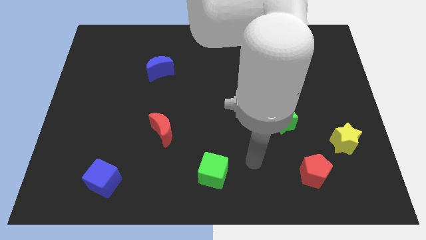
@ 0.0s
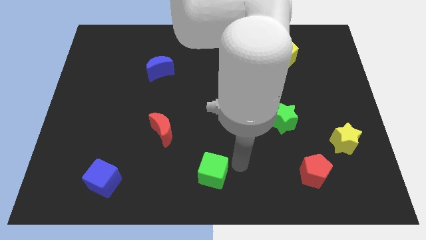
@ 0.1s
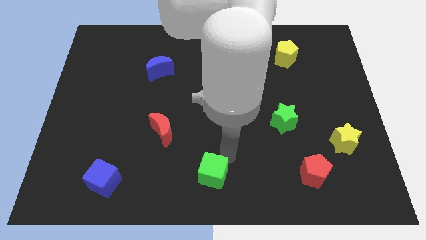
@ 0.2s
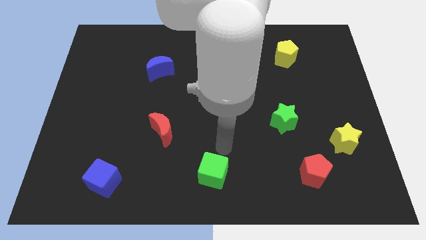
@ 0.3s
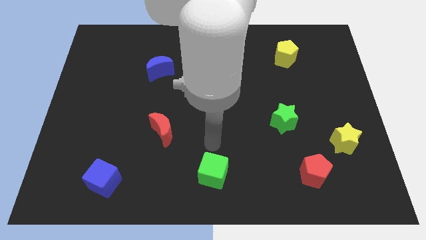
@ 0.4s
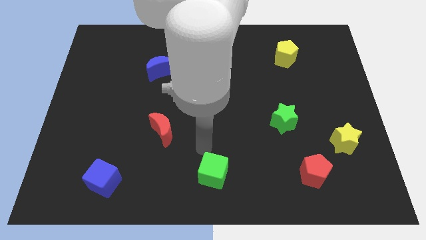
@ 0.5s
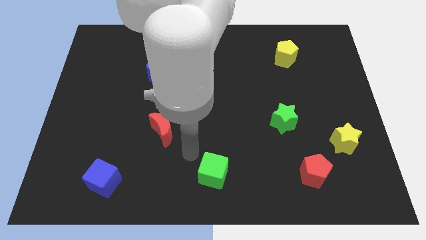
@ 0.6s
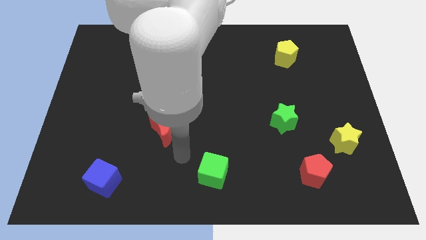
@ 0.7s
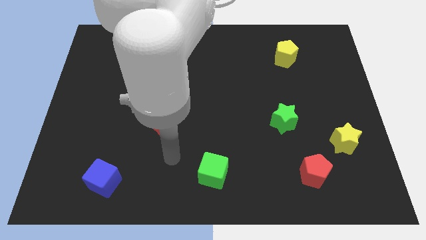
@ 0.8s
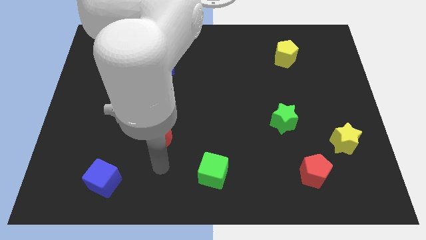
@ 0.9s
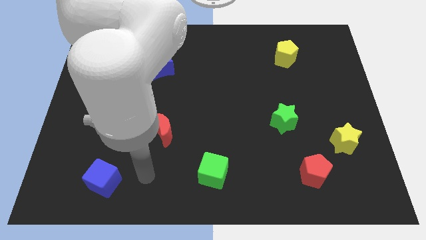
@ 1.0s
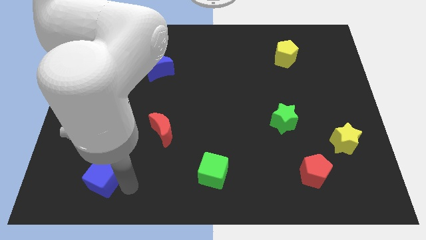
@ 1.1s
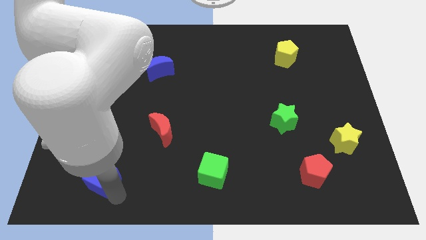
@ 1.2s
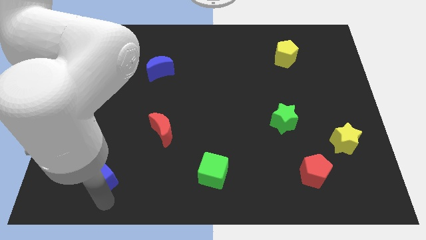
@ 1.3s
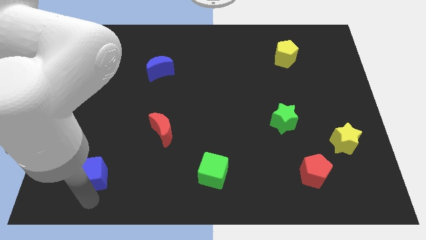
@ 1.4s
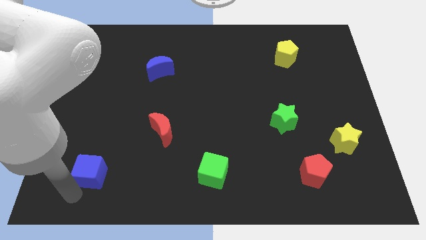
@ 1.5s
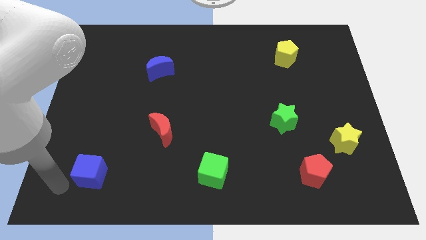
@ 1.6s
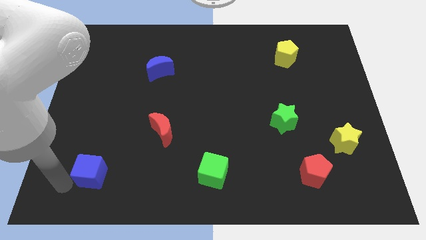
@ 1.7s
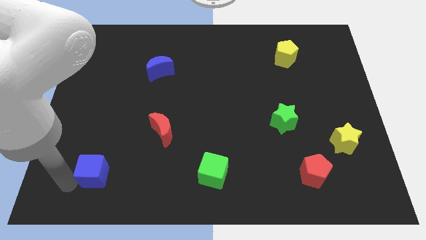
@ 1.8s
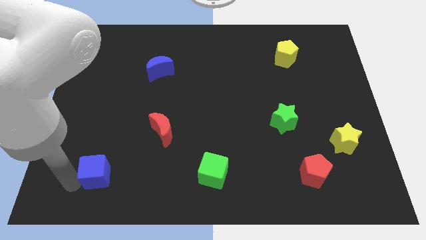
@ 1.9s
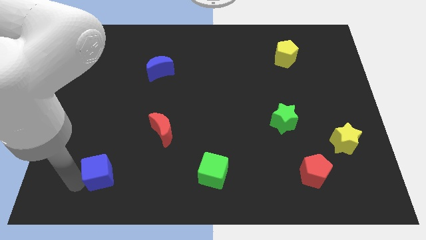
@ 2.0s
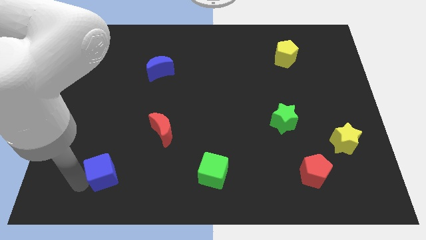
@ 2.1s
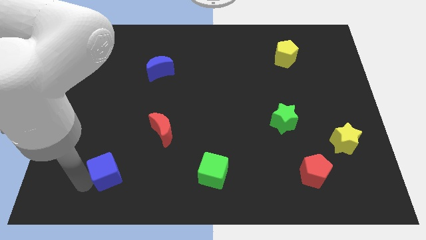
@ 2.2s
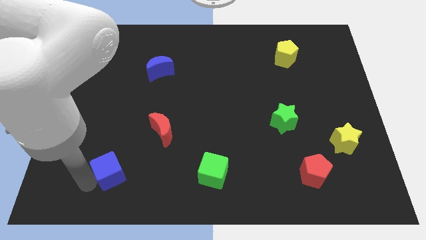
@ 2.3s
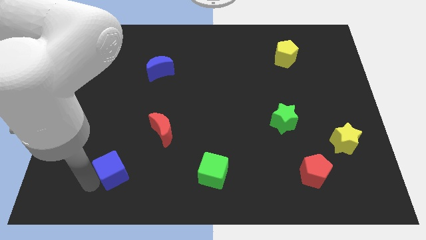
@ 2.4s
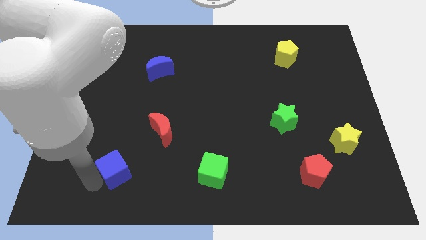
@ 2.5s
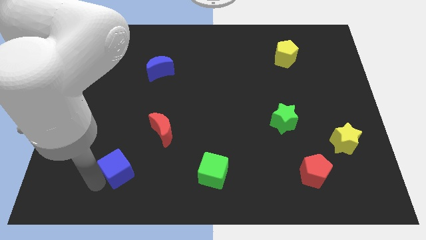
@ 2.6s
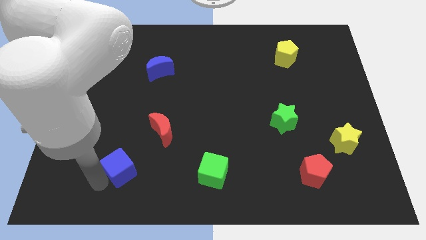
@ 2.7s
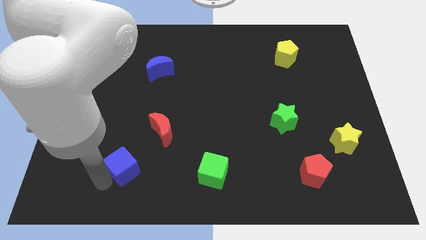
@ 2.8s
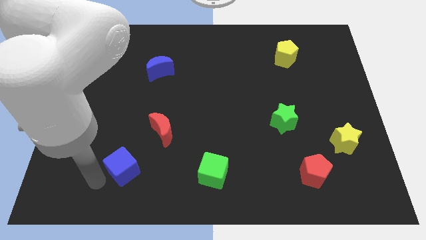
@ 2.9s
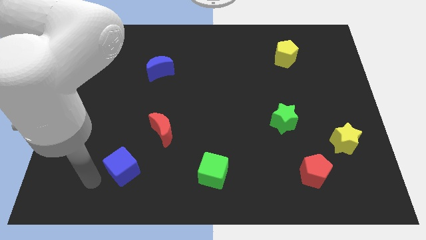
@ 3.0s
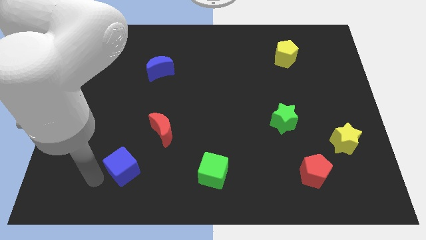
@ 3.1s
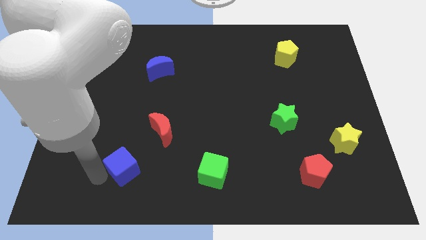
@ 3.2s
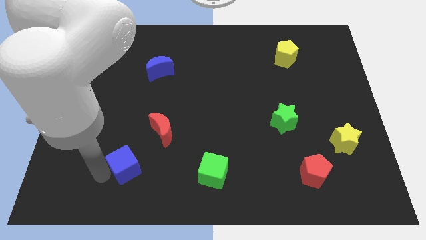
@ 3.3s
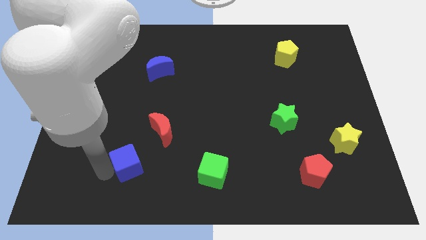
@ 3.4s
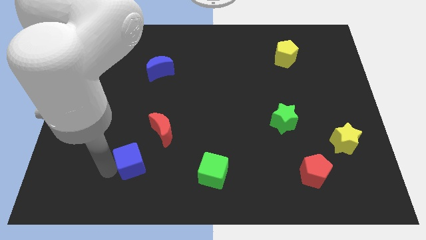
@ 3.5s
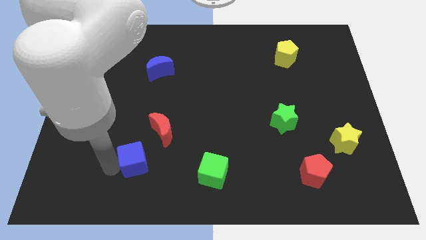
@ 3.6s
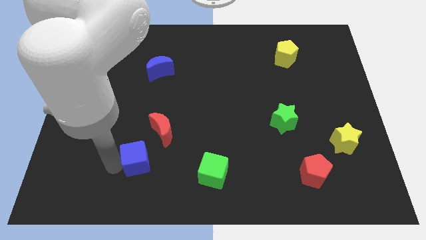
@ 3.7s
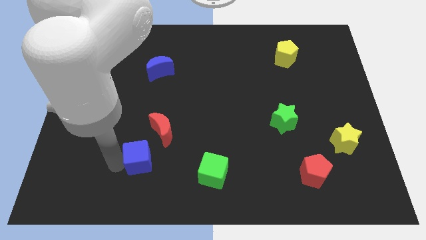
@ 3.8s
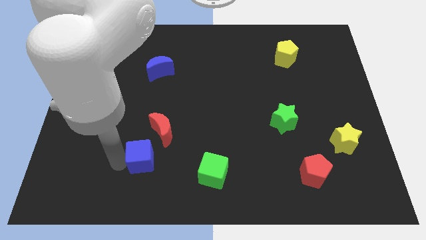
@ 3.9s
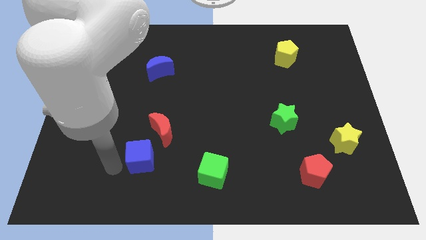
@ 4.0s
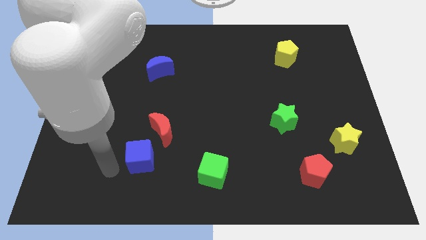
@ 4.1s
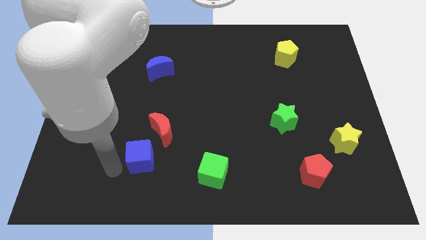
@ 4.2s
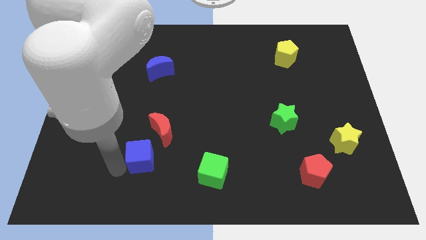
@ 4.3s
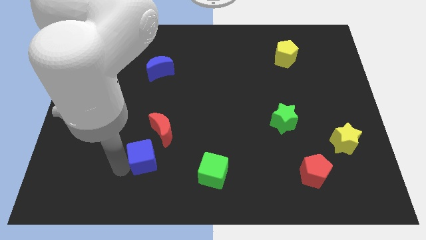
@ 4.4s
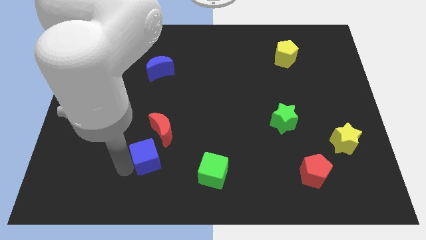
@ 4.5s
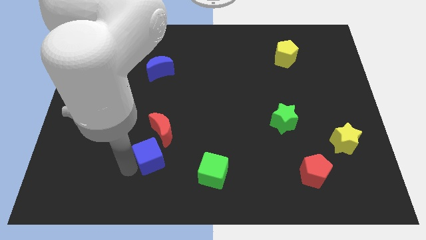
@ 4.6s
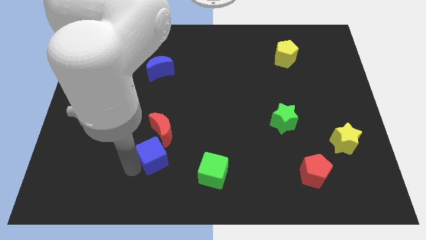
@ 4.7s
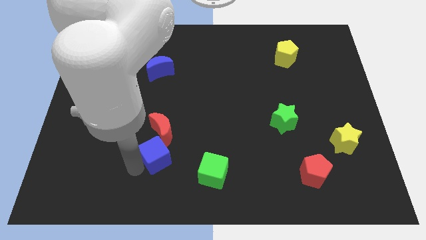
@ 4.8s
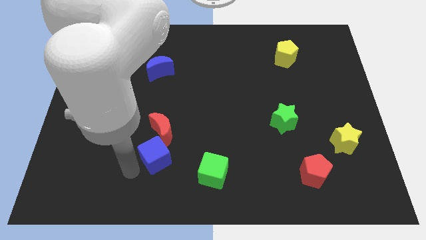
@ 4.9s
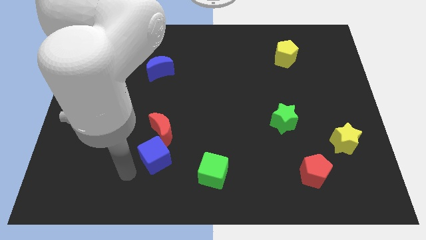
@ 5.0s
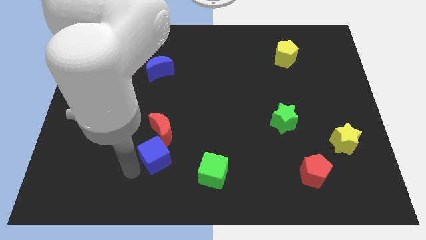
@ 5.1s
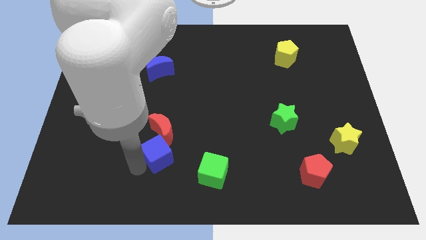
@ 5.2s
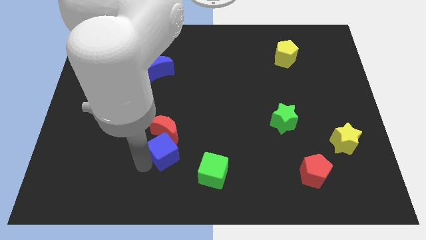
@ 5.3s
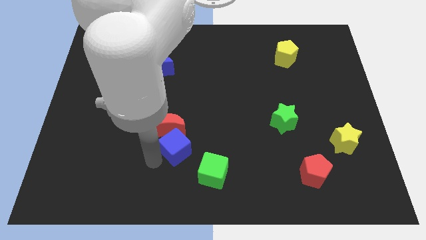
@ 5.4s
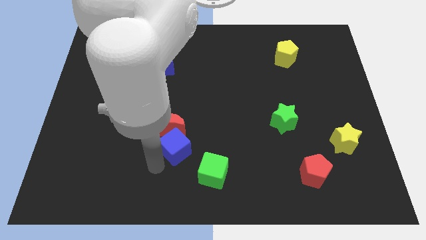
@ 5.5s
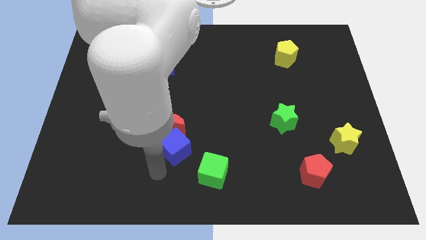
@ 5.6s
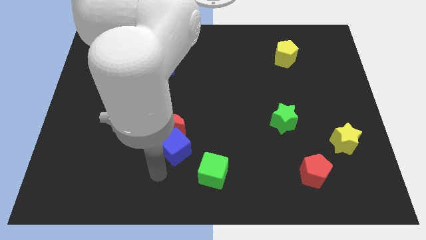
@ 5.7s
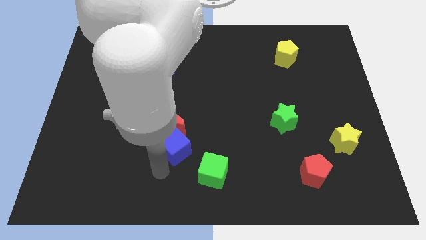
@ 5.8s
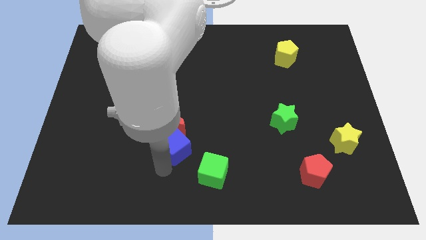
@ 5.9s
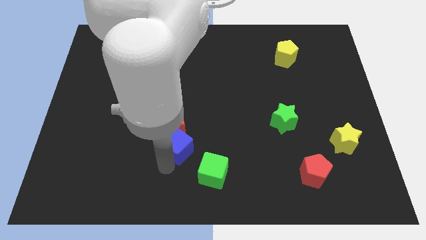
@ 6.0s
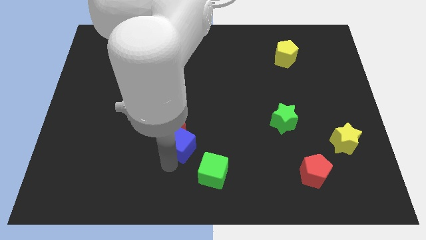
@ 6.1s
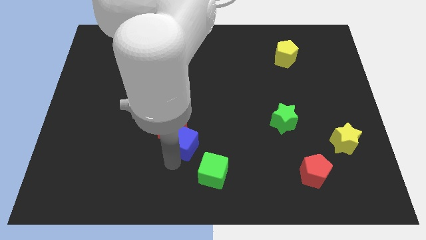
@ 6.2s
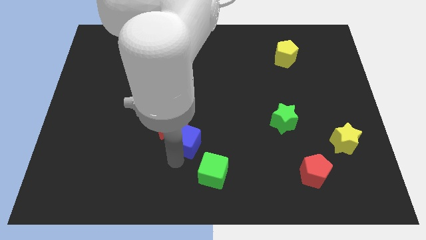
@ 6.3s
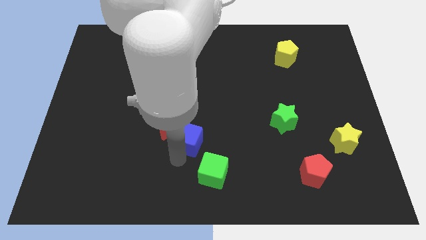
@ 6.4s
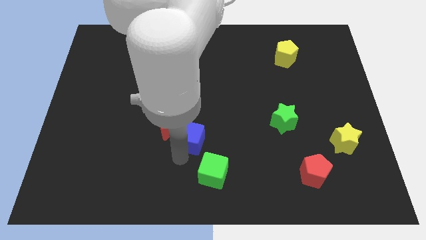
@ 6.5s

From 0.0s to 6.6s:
put the blue cube to the middle

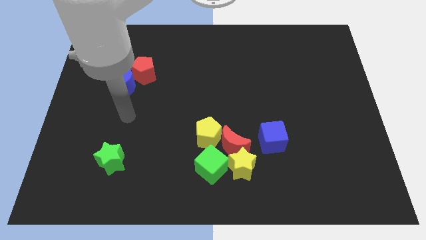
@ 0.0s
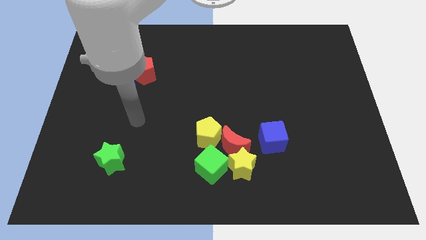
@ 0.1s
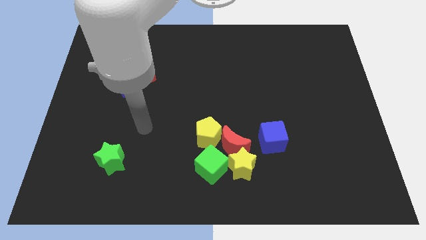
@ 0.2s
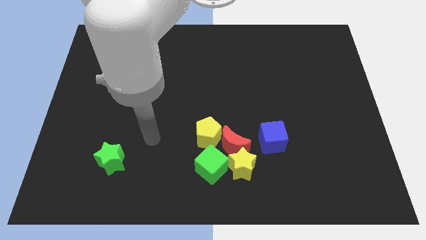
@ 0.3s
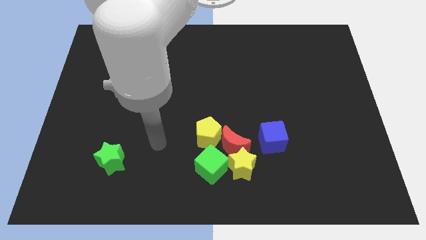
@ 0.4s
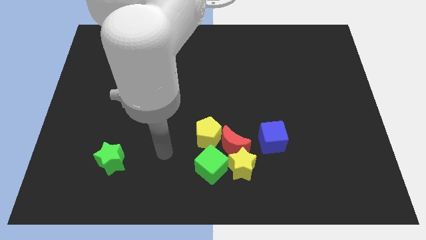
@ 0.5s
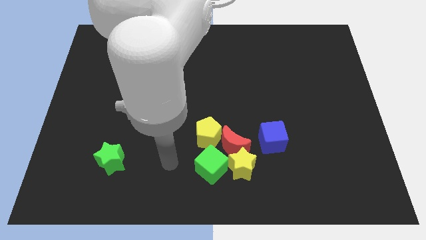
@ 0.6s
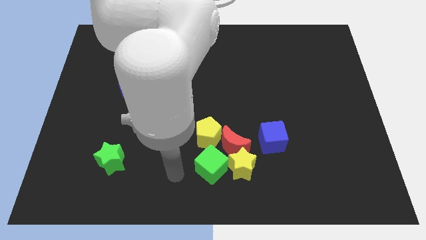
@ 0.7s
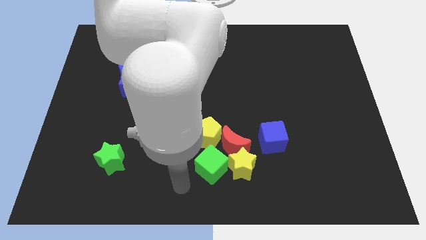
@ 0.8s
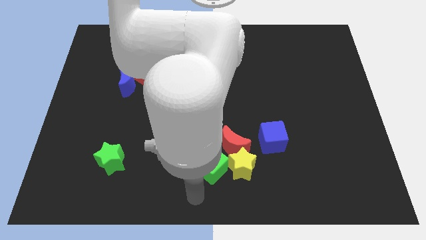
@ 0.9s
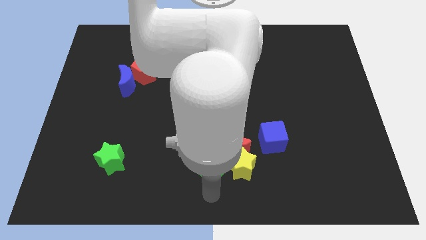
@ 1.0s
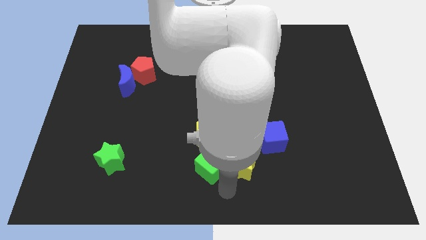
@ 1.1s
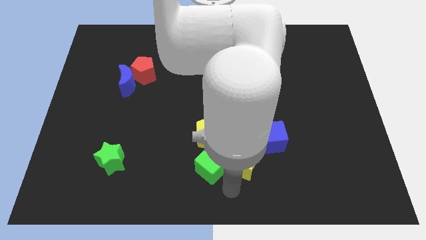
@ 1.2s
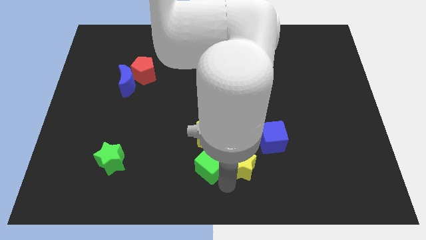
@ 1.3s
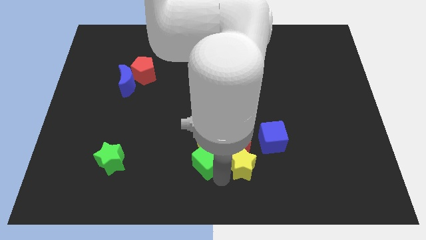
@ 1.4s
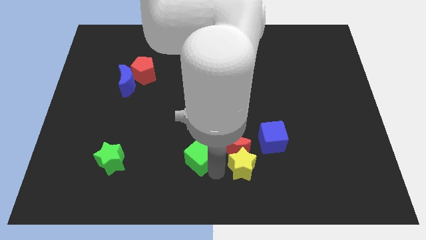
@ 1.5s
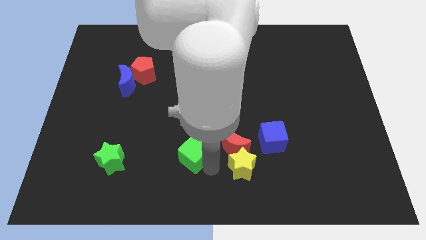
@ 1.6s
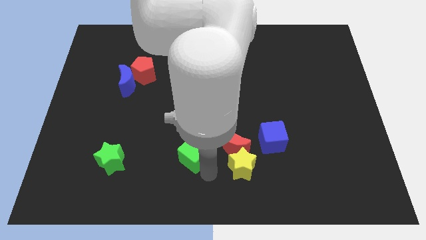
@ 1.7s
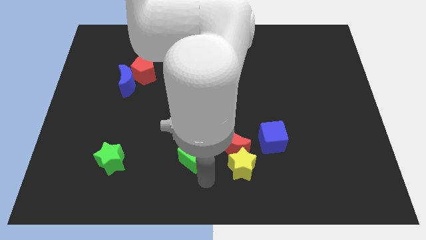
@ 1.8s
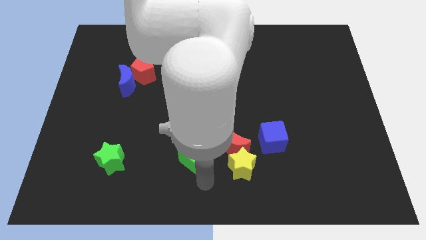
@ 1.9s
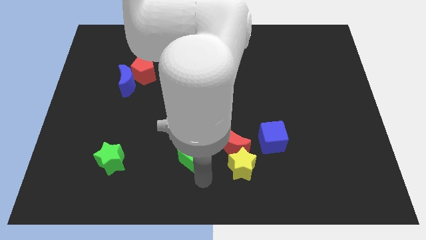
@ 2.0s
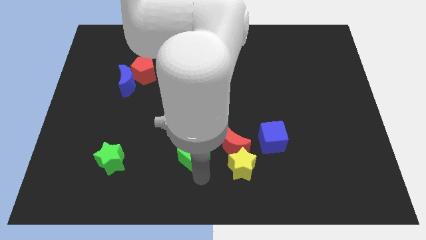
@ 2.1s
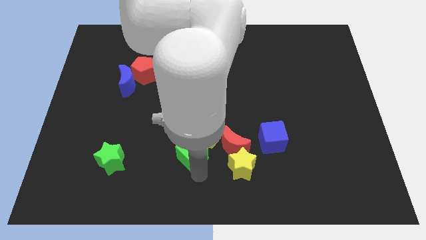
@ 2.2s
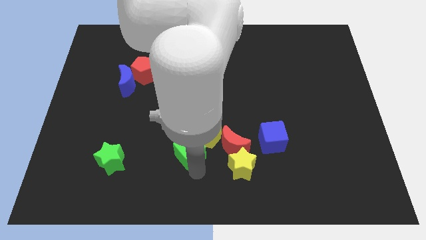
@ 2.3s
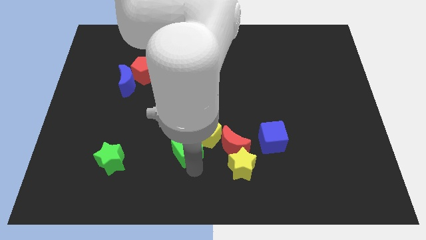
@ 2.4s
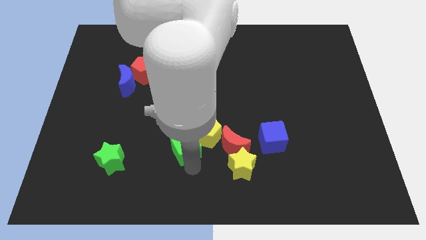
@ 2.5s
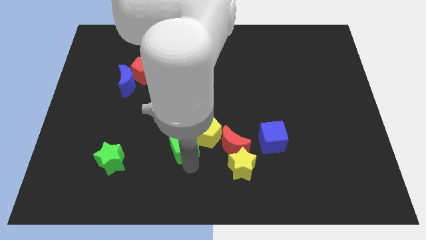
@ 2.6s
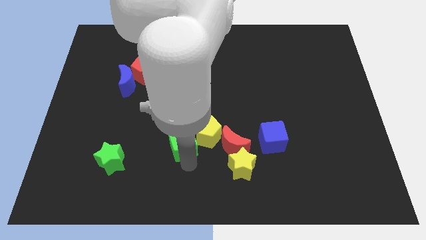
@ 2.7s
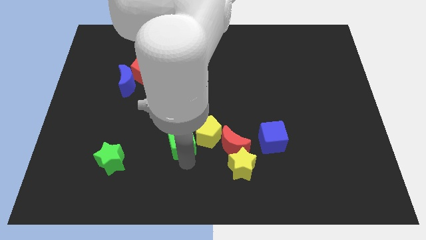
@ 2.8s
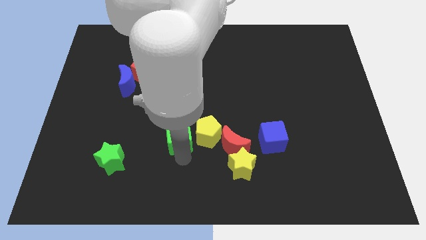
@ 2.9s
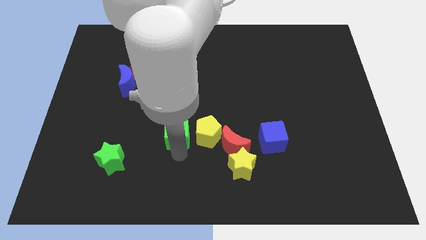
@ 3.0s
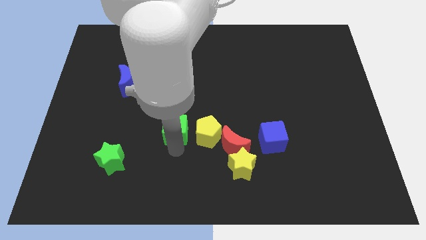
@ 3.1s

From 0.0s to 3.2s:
put the green cube to the center of the board
